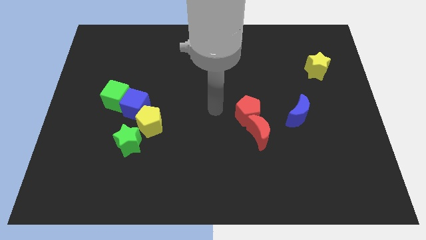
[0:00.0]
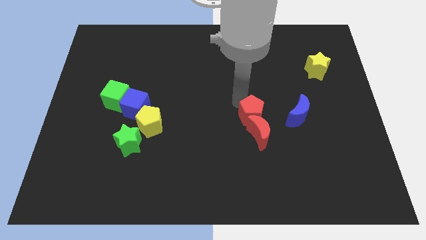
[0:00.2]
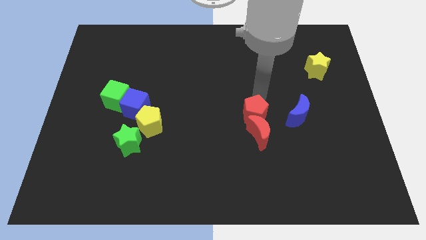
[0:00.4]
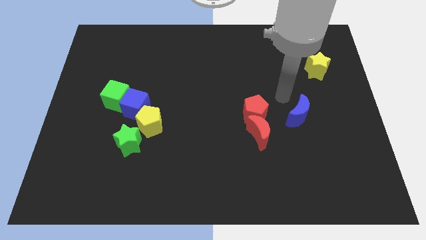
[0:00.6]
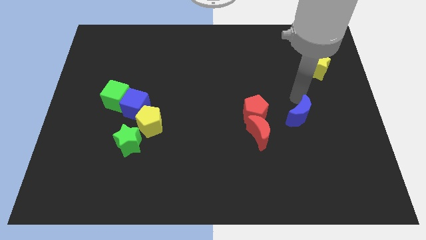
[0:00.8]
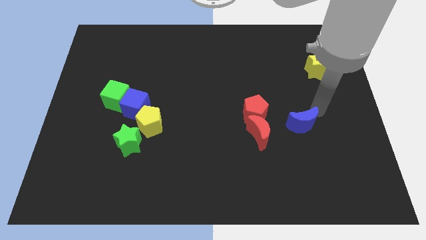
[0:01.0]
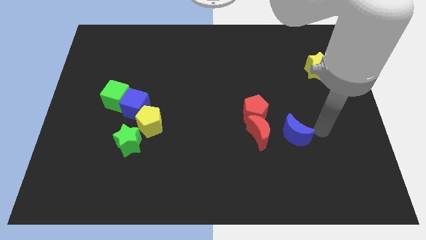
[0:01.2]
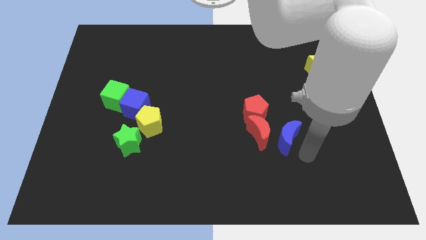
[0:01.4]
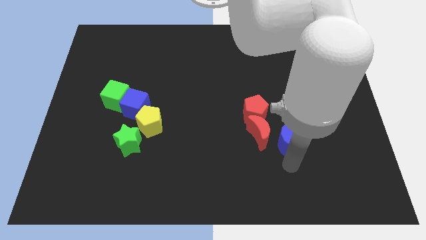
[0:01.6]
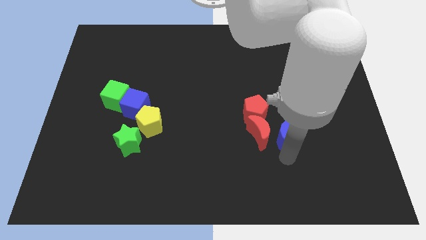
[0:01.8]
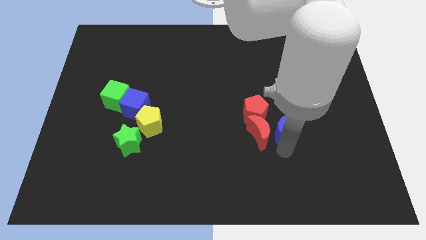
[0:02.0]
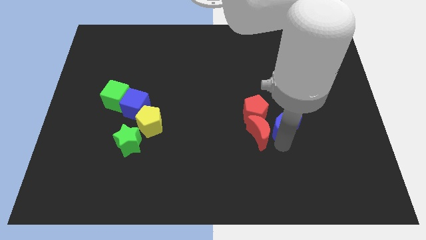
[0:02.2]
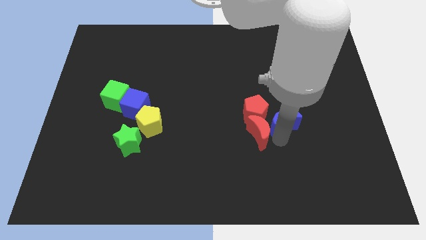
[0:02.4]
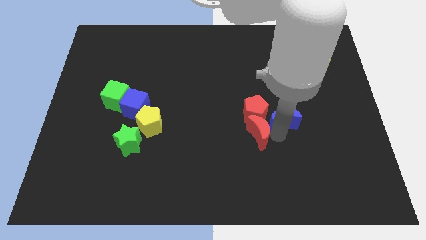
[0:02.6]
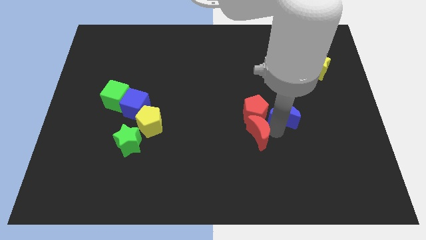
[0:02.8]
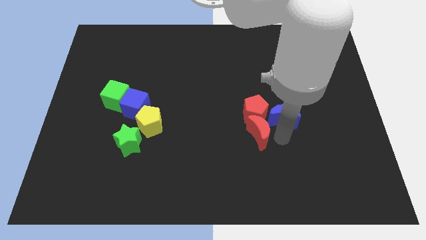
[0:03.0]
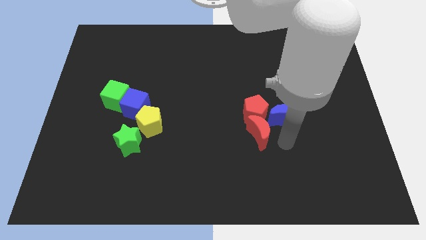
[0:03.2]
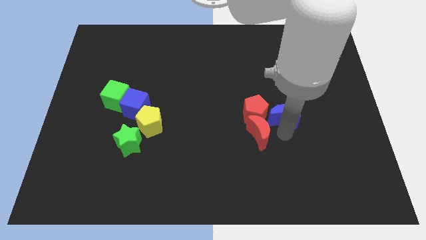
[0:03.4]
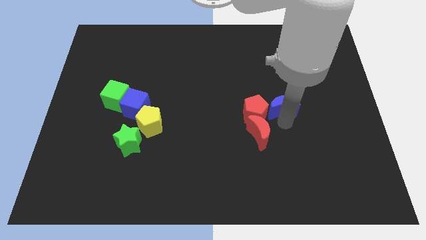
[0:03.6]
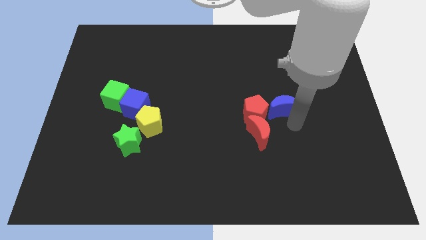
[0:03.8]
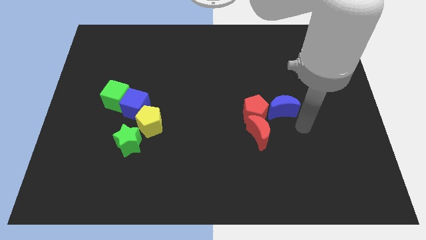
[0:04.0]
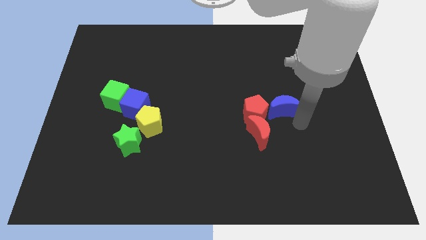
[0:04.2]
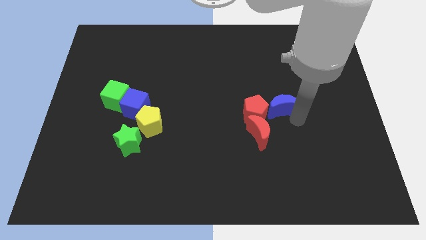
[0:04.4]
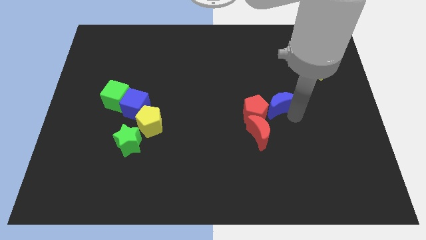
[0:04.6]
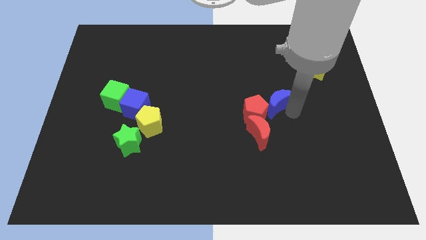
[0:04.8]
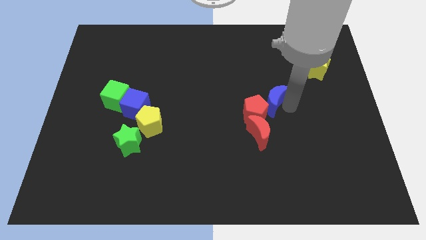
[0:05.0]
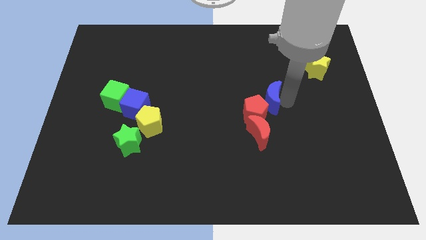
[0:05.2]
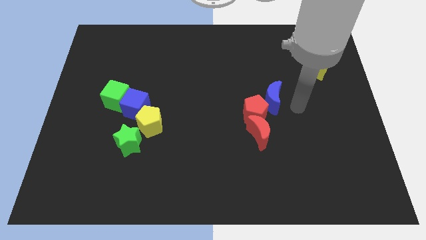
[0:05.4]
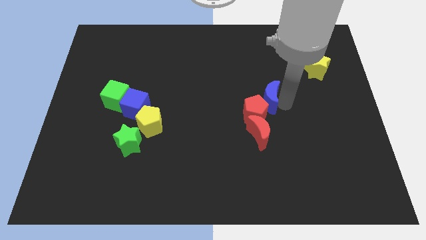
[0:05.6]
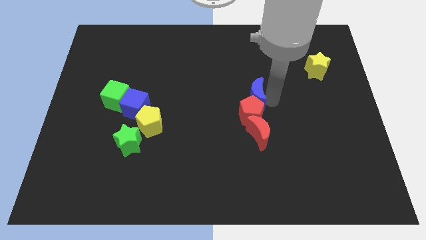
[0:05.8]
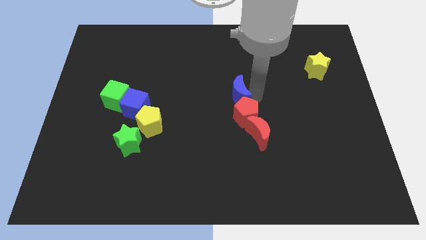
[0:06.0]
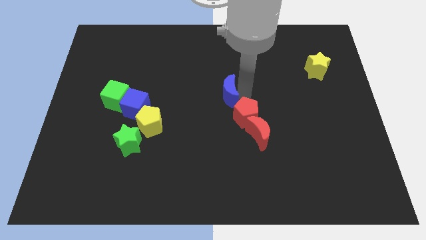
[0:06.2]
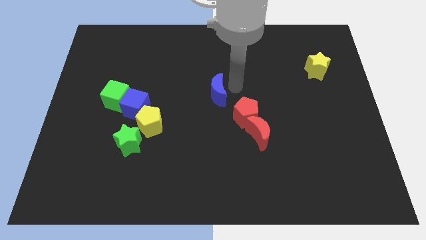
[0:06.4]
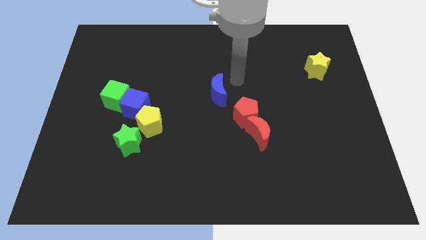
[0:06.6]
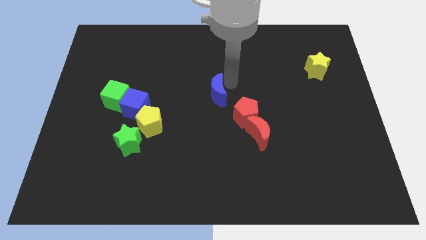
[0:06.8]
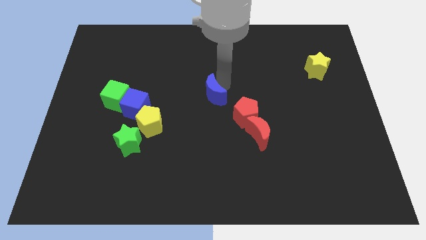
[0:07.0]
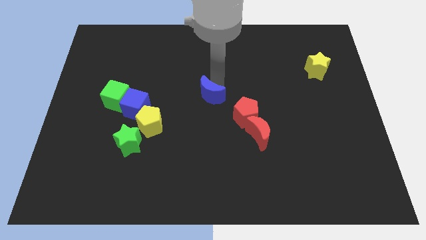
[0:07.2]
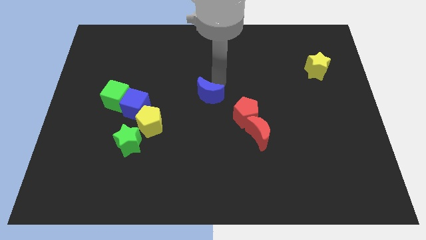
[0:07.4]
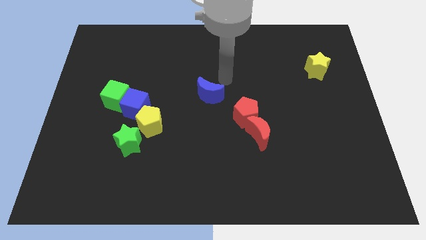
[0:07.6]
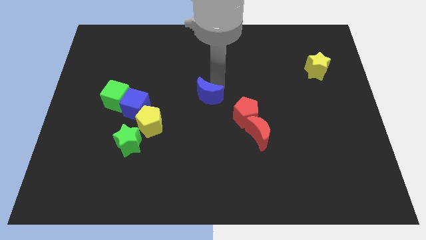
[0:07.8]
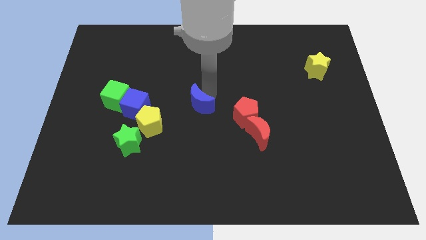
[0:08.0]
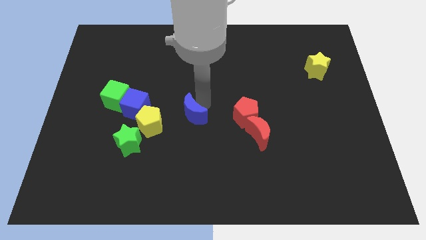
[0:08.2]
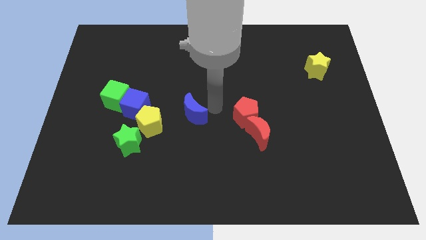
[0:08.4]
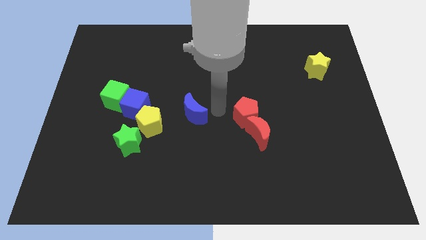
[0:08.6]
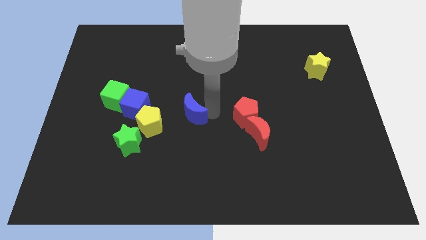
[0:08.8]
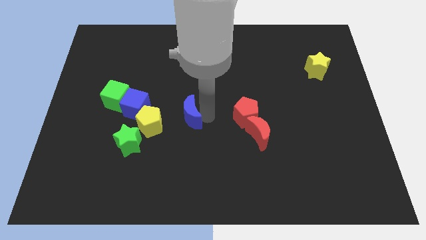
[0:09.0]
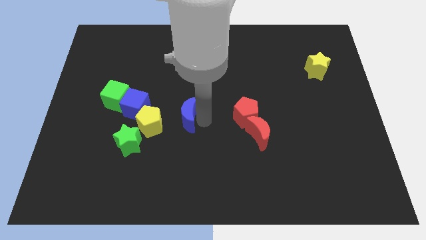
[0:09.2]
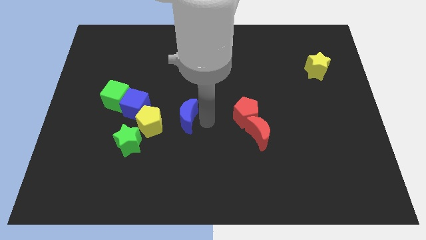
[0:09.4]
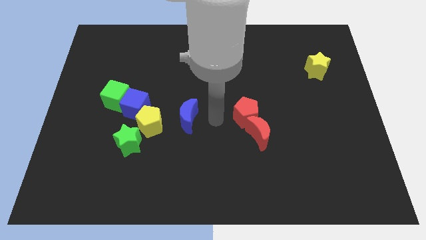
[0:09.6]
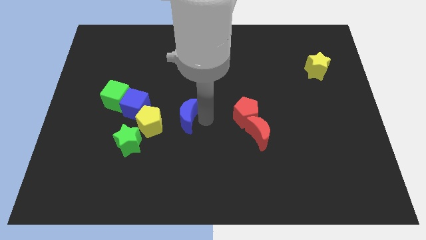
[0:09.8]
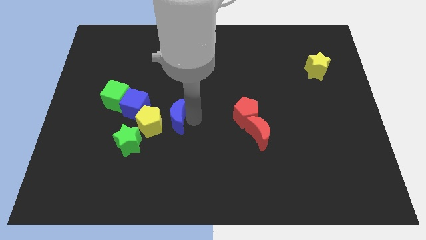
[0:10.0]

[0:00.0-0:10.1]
put the blue moon towards the yellow pentagon

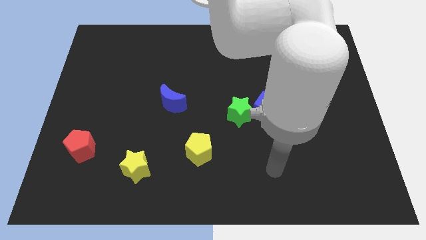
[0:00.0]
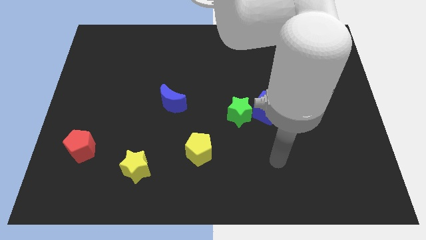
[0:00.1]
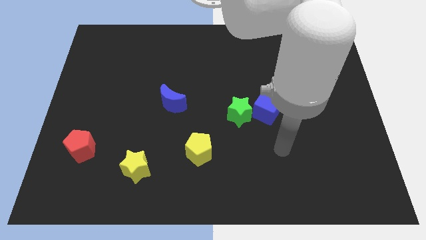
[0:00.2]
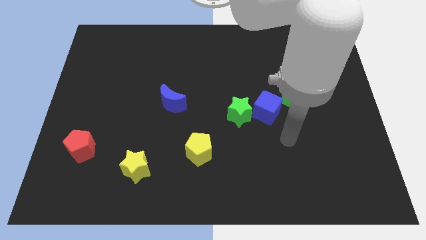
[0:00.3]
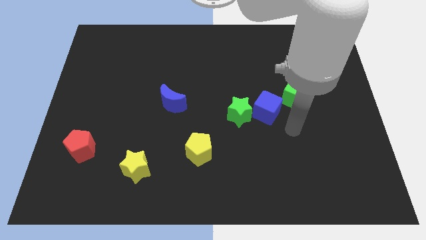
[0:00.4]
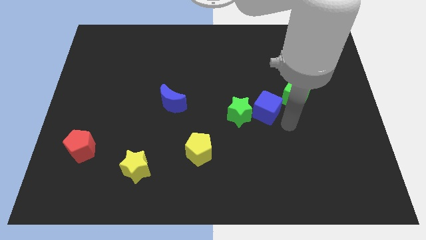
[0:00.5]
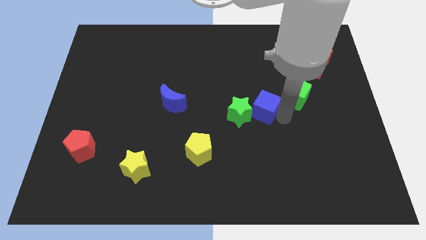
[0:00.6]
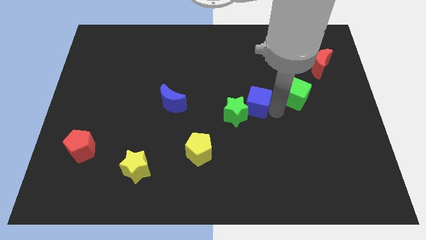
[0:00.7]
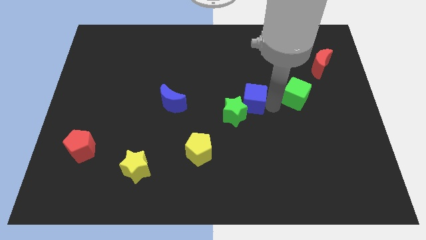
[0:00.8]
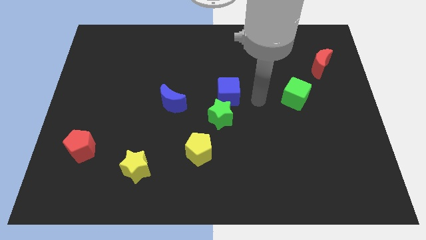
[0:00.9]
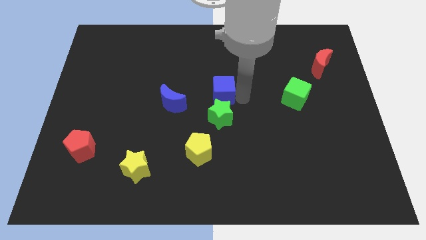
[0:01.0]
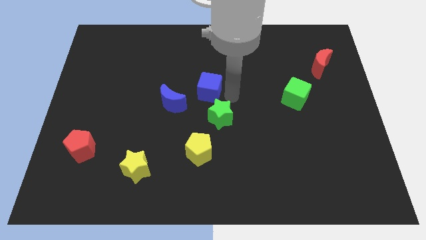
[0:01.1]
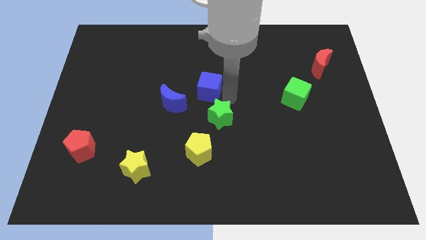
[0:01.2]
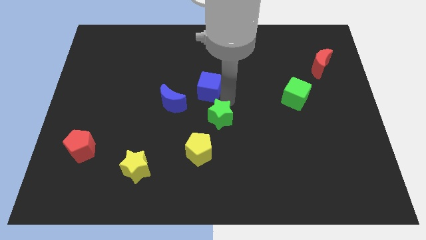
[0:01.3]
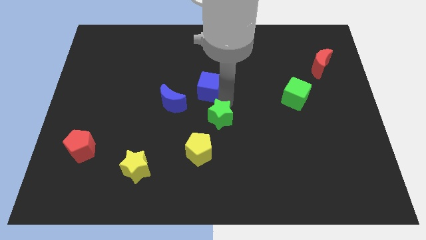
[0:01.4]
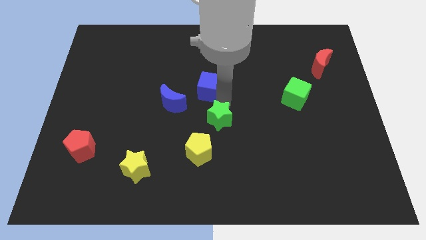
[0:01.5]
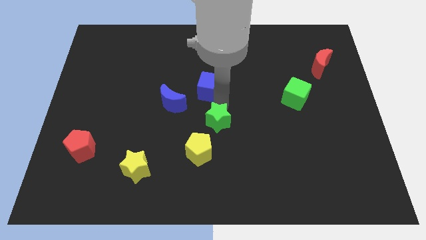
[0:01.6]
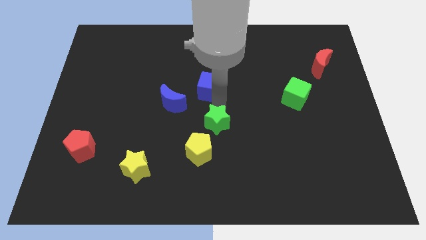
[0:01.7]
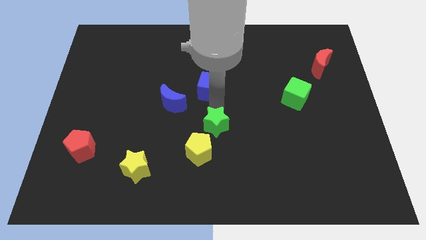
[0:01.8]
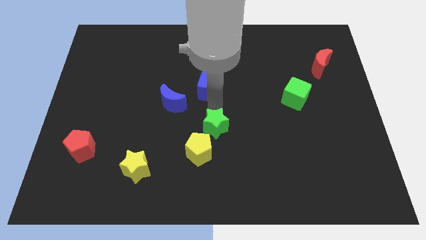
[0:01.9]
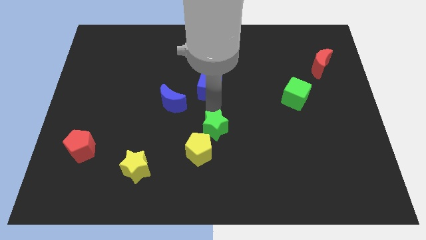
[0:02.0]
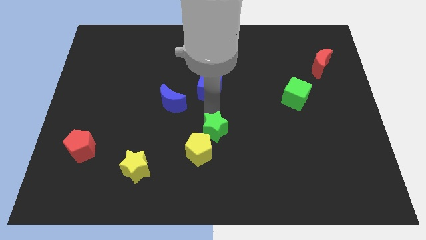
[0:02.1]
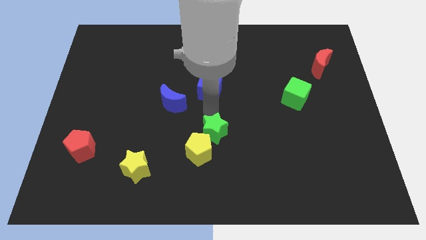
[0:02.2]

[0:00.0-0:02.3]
push the green star next to the yellow pentagon

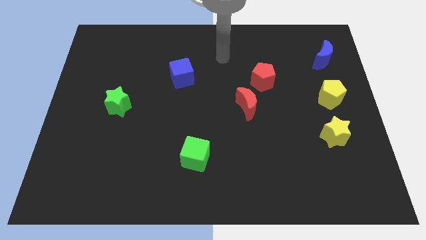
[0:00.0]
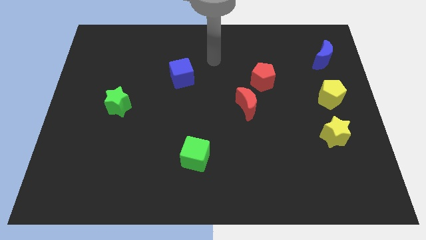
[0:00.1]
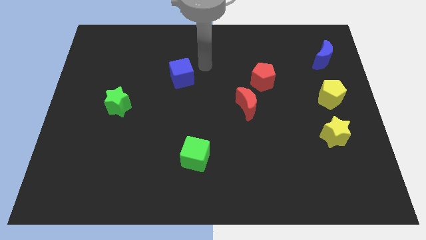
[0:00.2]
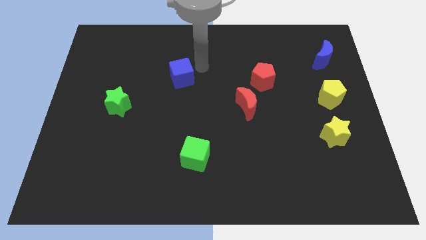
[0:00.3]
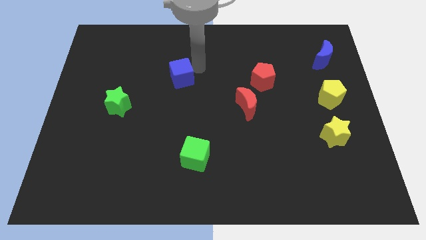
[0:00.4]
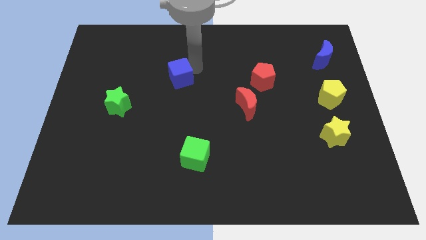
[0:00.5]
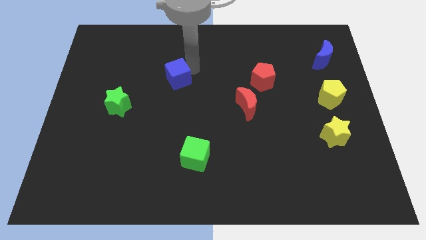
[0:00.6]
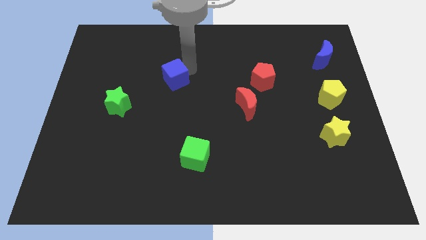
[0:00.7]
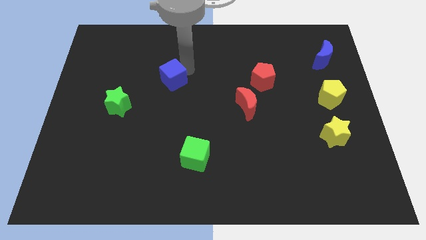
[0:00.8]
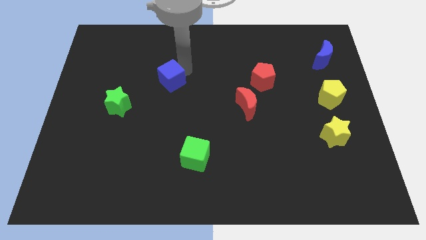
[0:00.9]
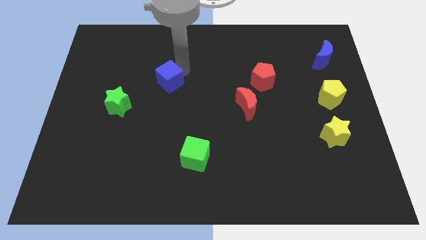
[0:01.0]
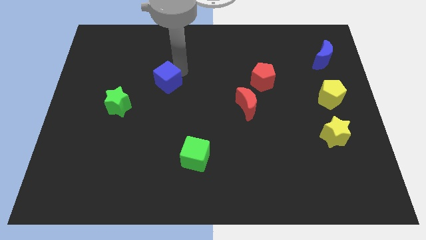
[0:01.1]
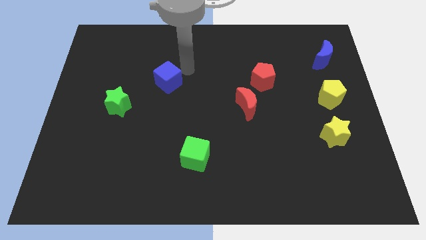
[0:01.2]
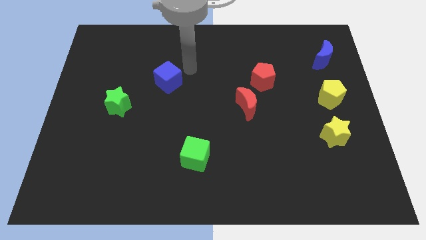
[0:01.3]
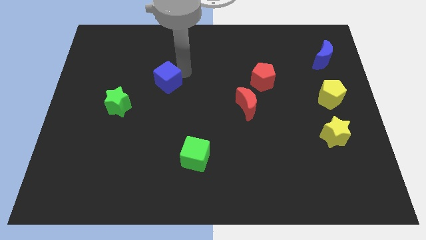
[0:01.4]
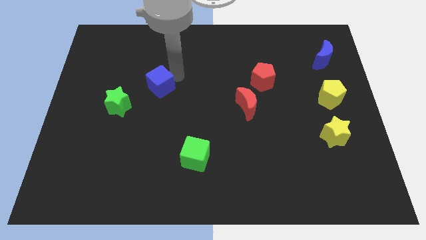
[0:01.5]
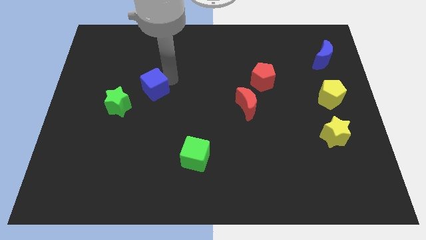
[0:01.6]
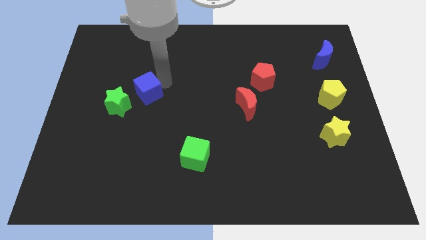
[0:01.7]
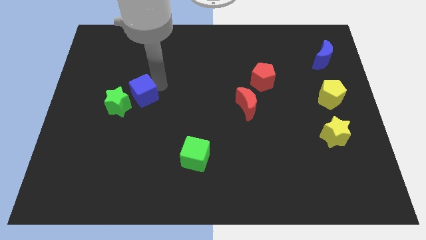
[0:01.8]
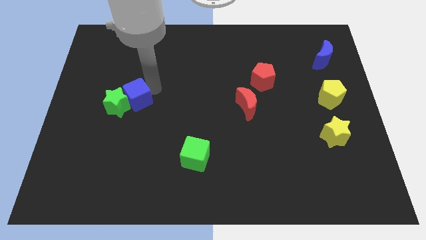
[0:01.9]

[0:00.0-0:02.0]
put the blue cube next to the green star
